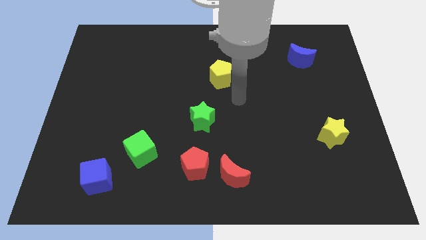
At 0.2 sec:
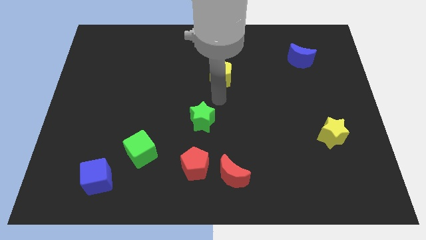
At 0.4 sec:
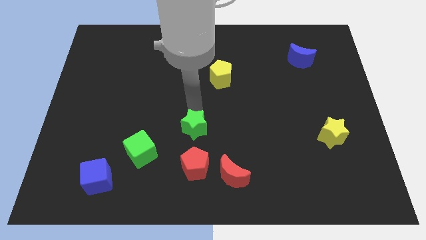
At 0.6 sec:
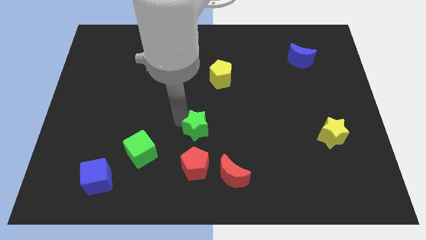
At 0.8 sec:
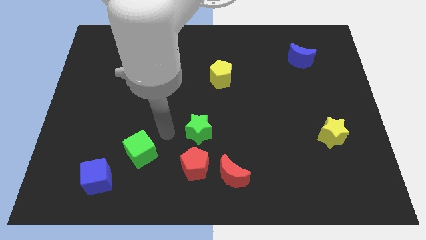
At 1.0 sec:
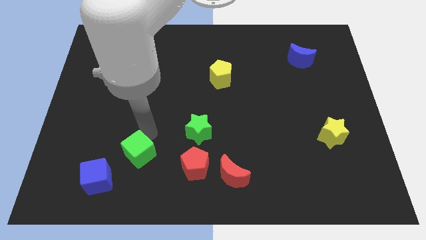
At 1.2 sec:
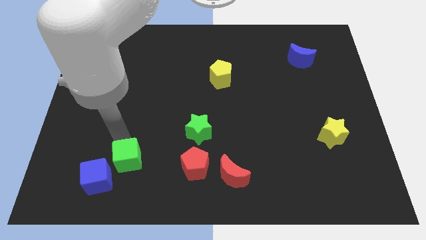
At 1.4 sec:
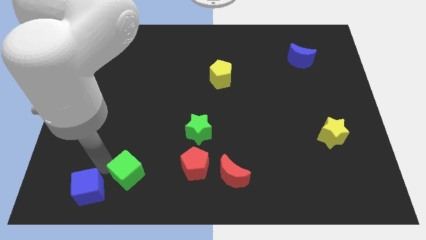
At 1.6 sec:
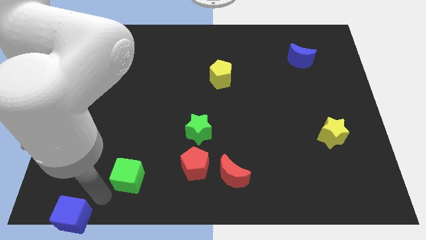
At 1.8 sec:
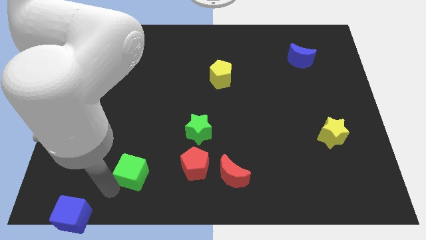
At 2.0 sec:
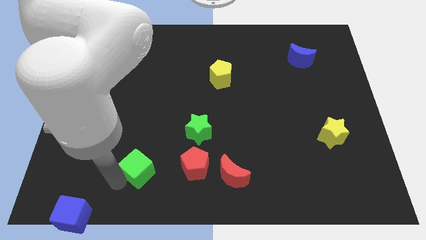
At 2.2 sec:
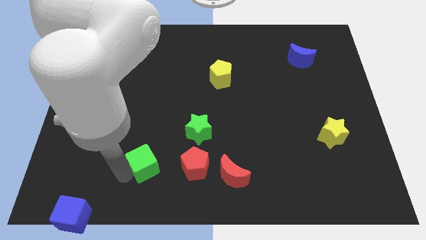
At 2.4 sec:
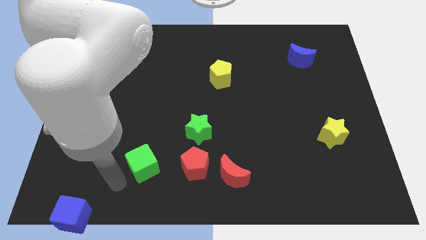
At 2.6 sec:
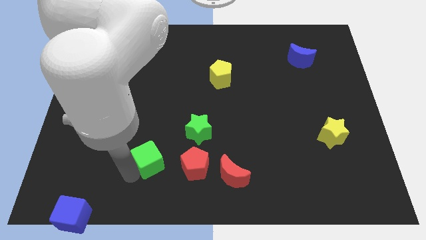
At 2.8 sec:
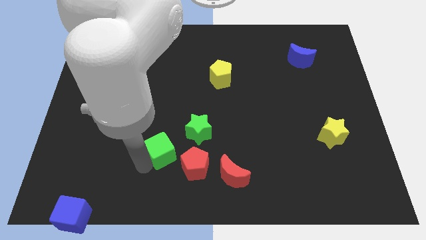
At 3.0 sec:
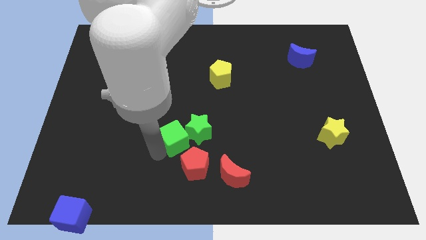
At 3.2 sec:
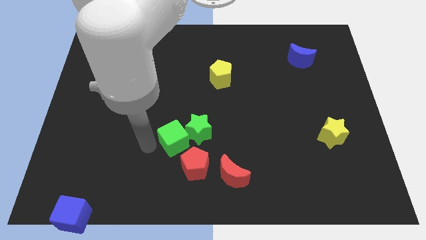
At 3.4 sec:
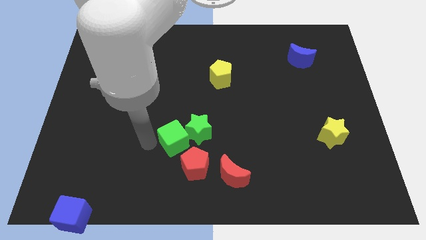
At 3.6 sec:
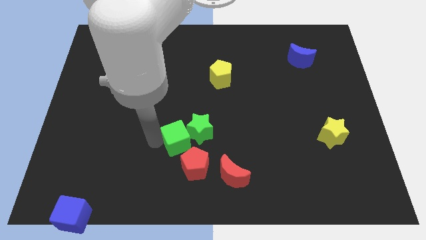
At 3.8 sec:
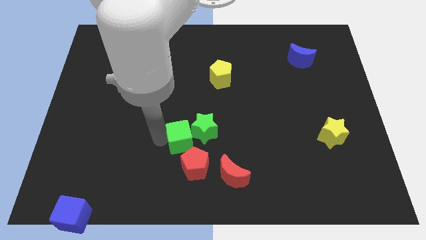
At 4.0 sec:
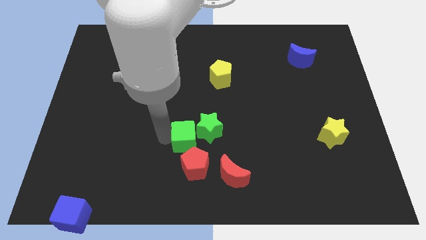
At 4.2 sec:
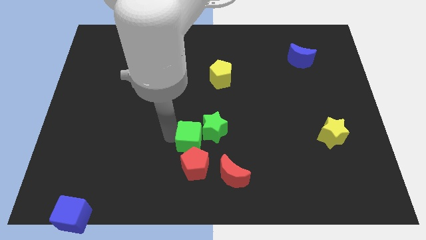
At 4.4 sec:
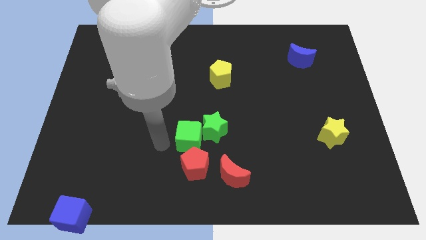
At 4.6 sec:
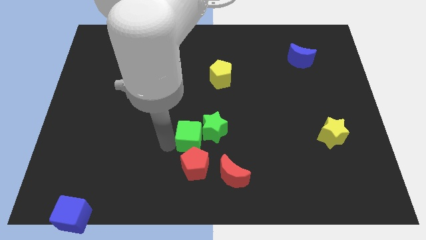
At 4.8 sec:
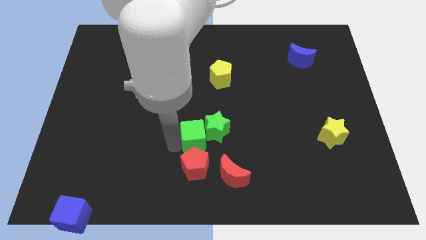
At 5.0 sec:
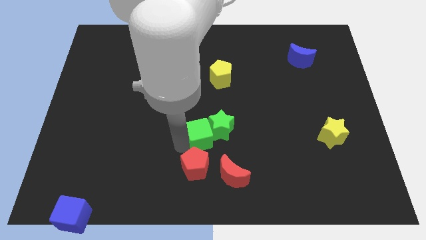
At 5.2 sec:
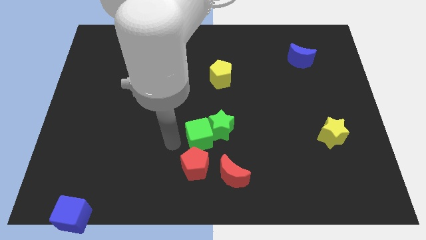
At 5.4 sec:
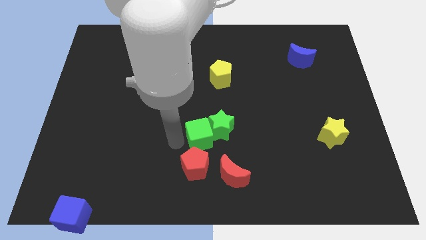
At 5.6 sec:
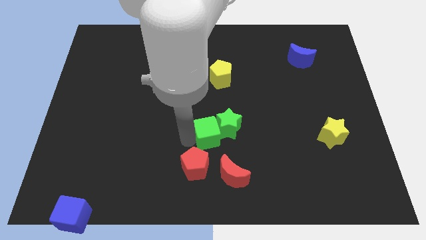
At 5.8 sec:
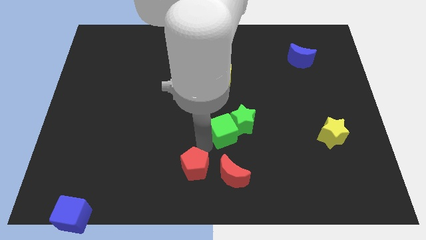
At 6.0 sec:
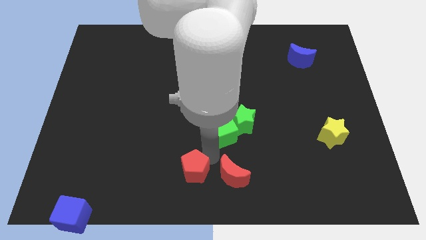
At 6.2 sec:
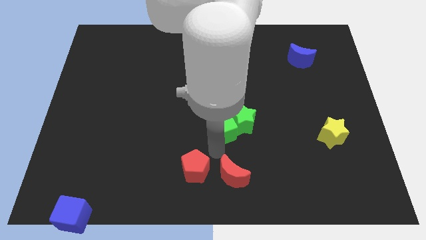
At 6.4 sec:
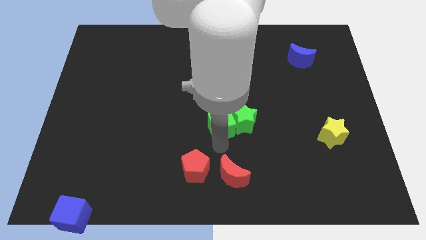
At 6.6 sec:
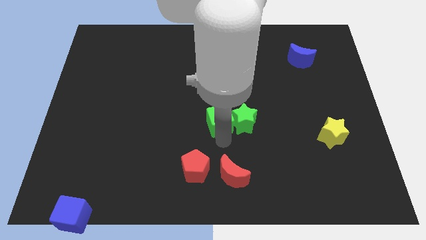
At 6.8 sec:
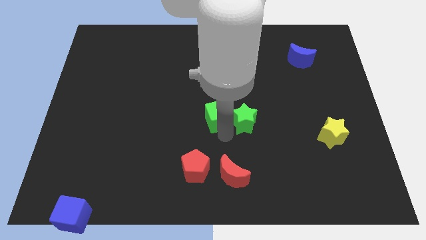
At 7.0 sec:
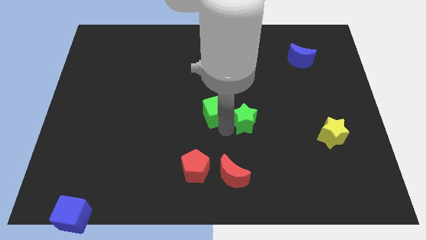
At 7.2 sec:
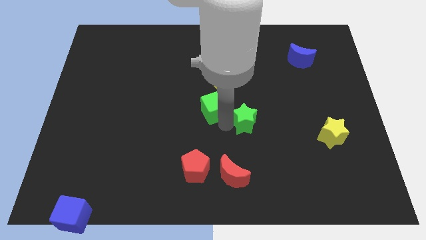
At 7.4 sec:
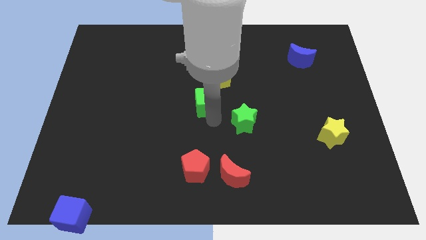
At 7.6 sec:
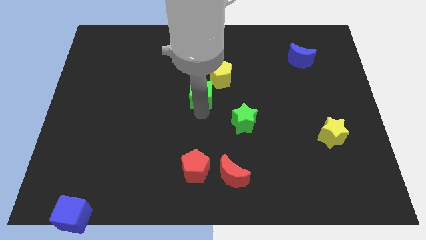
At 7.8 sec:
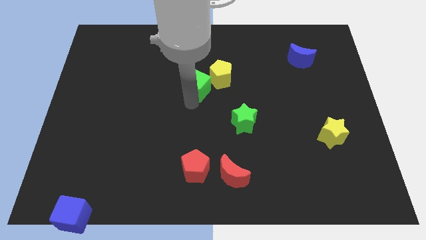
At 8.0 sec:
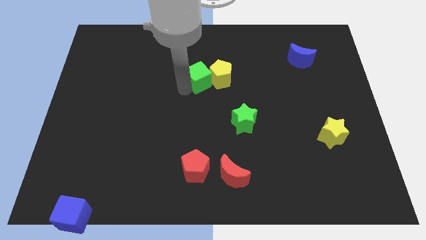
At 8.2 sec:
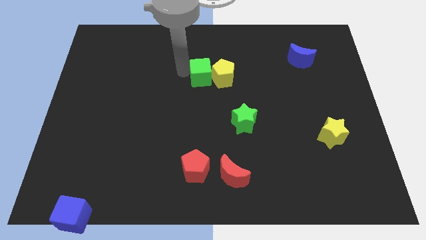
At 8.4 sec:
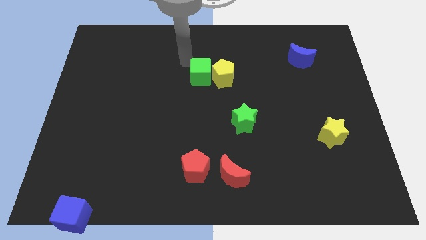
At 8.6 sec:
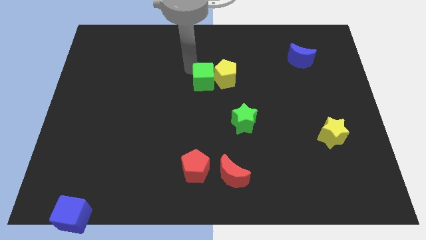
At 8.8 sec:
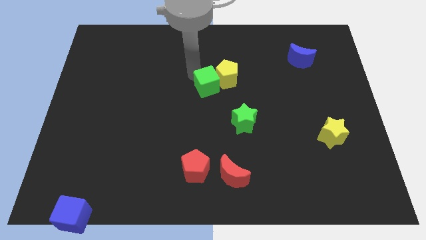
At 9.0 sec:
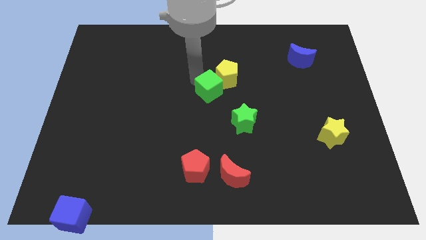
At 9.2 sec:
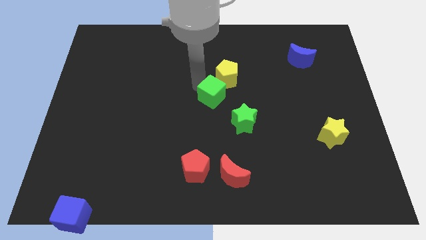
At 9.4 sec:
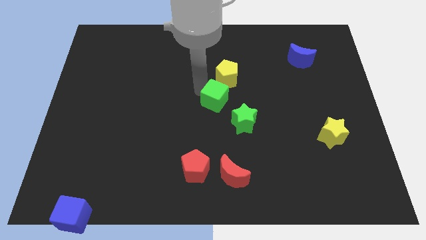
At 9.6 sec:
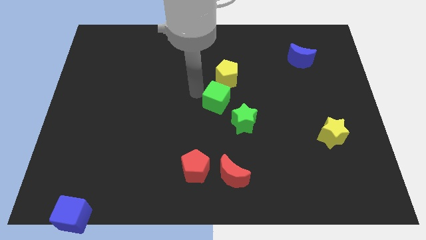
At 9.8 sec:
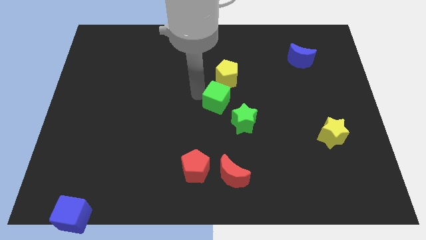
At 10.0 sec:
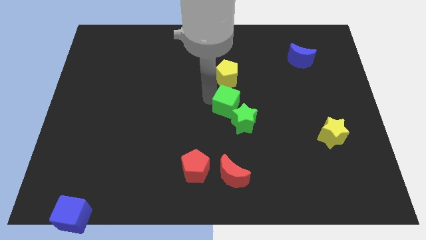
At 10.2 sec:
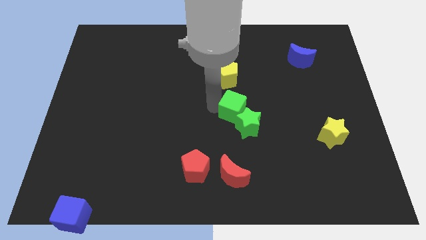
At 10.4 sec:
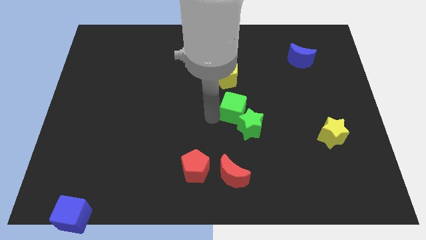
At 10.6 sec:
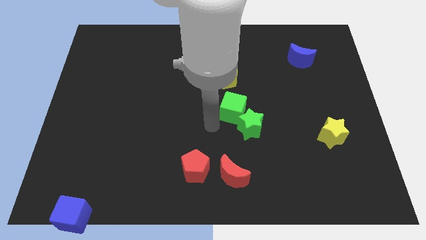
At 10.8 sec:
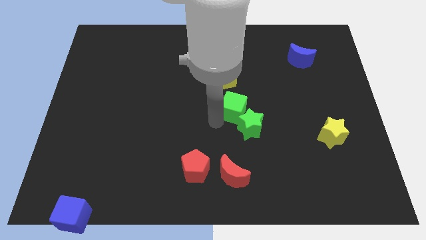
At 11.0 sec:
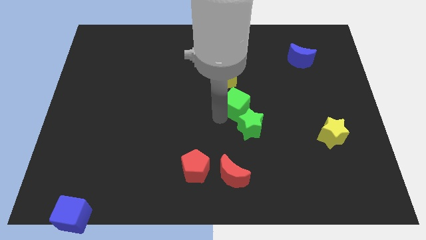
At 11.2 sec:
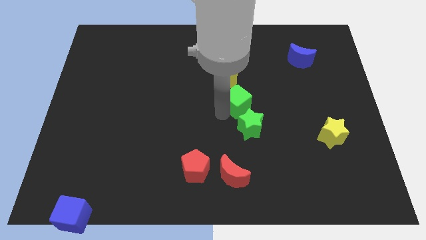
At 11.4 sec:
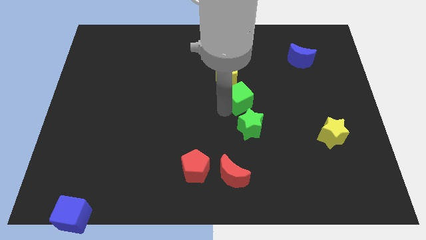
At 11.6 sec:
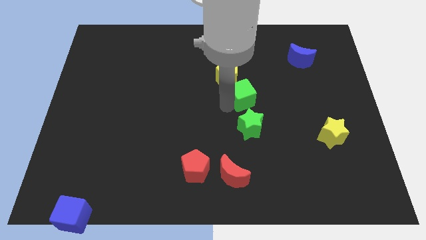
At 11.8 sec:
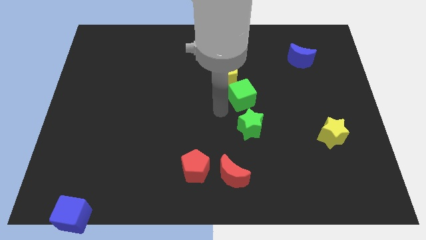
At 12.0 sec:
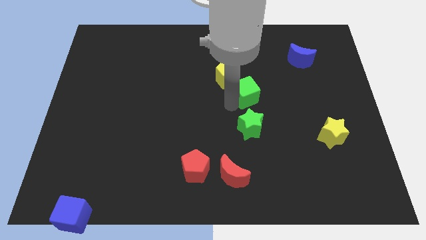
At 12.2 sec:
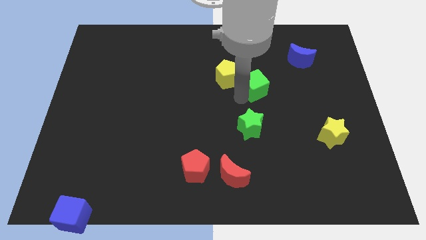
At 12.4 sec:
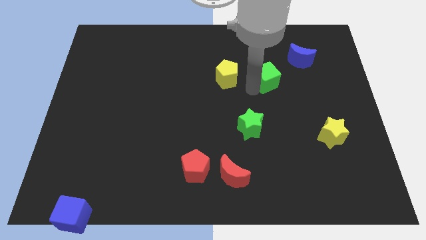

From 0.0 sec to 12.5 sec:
push the green cube to the bottom left side of the blue moon

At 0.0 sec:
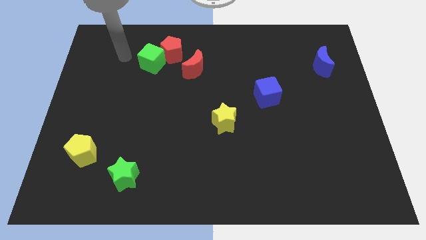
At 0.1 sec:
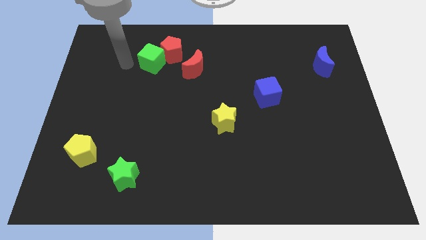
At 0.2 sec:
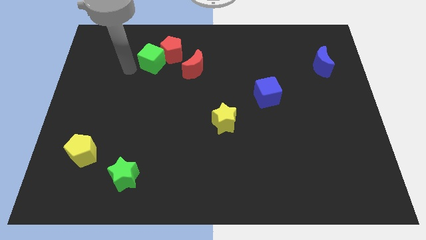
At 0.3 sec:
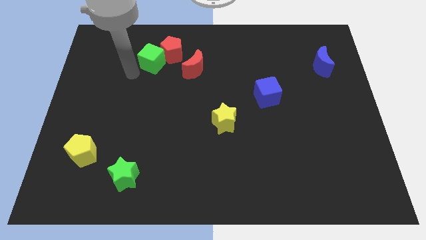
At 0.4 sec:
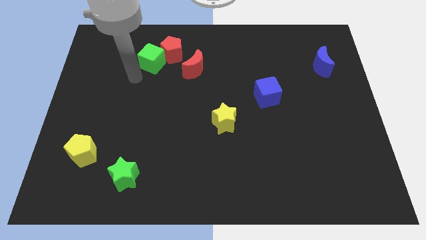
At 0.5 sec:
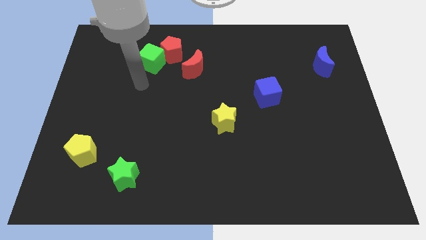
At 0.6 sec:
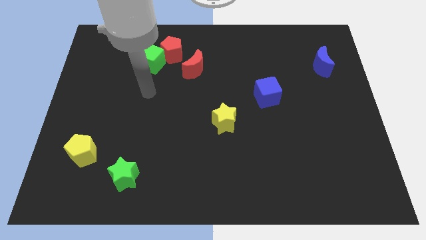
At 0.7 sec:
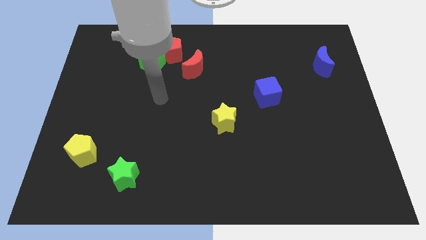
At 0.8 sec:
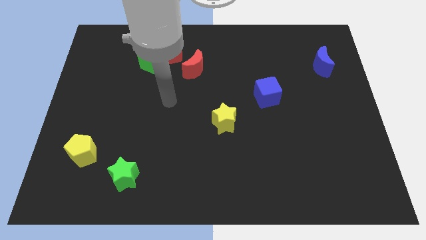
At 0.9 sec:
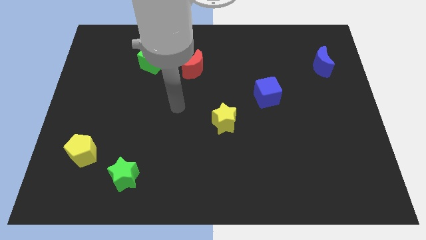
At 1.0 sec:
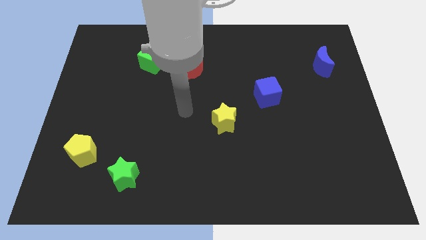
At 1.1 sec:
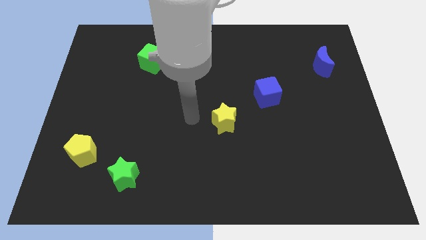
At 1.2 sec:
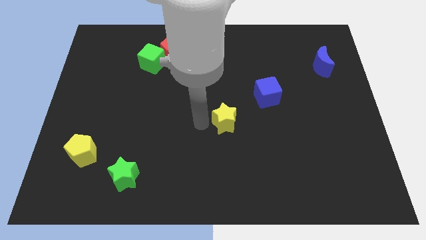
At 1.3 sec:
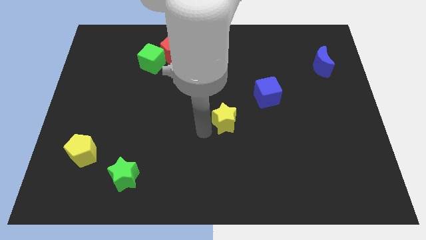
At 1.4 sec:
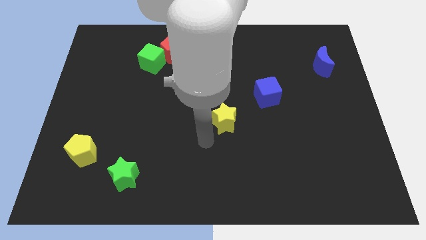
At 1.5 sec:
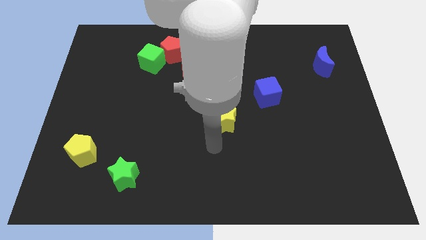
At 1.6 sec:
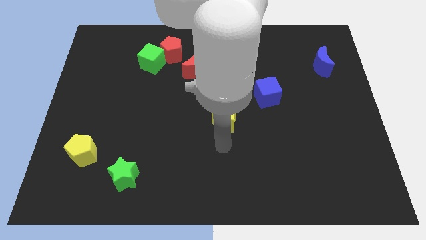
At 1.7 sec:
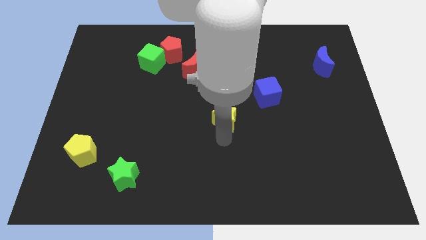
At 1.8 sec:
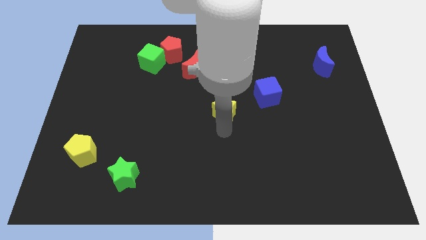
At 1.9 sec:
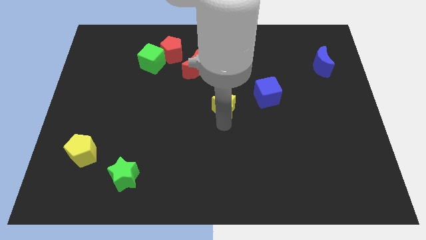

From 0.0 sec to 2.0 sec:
put the yellow star just left of the blue cube
